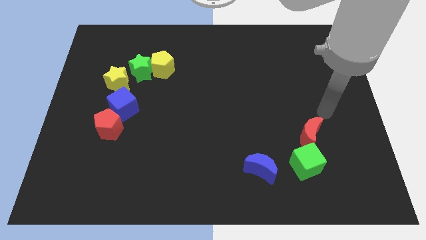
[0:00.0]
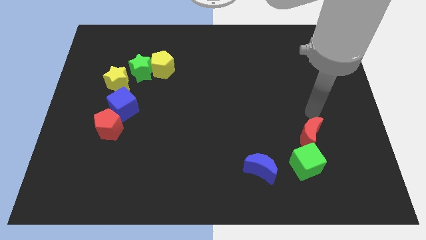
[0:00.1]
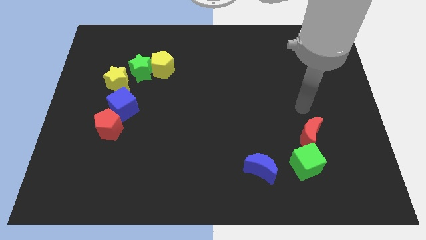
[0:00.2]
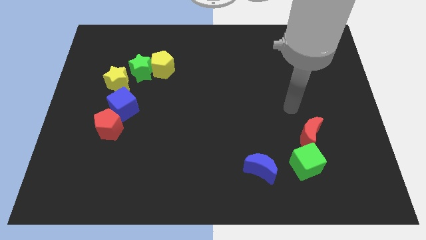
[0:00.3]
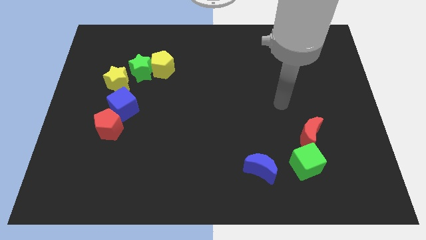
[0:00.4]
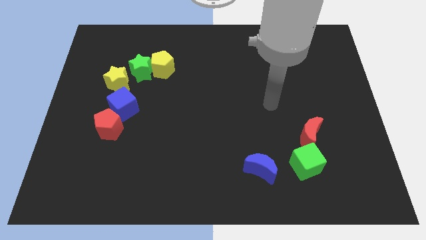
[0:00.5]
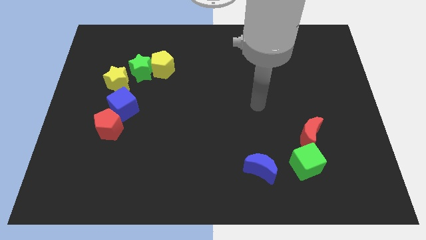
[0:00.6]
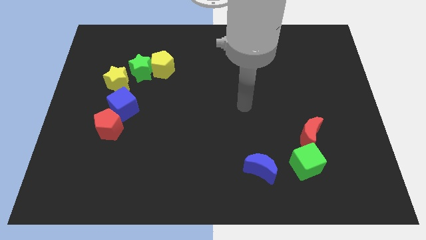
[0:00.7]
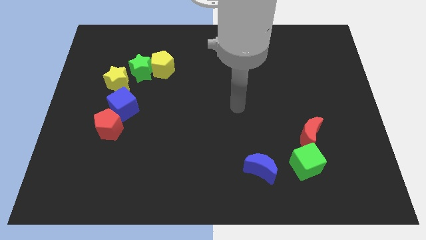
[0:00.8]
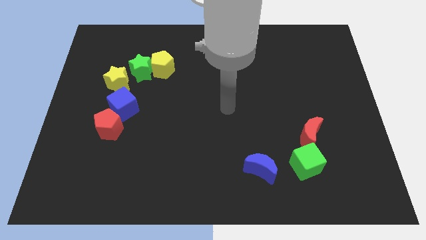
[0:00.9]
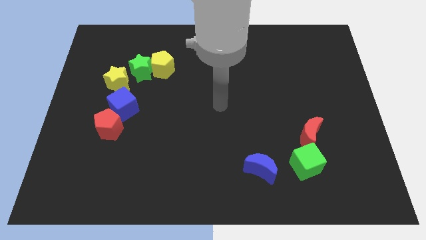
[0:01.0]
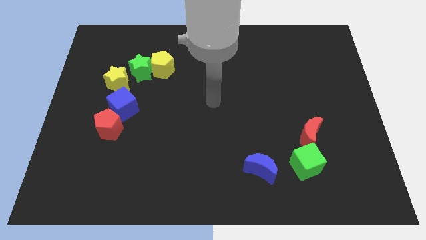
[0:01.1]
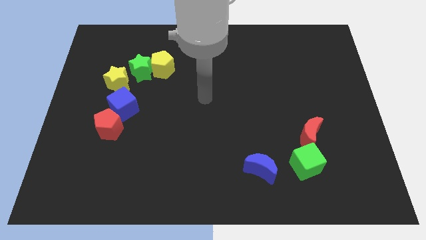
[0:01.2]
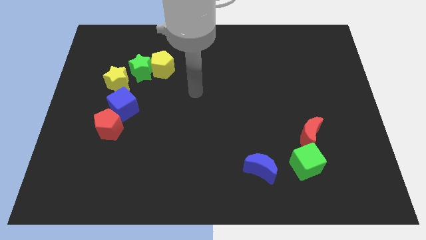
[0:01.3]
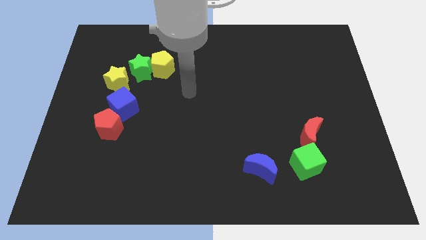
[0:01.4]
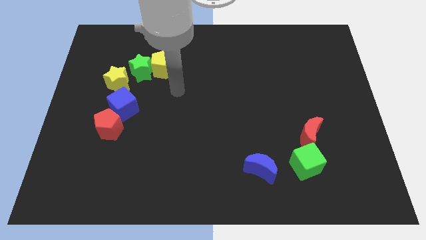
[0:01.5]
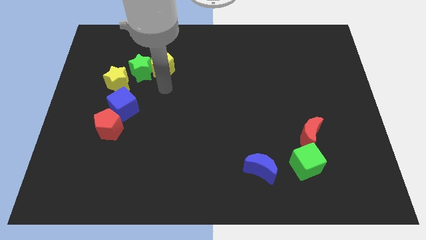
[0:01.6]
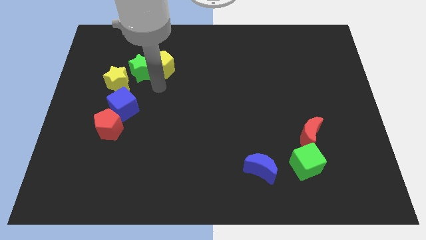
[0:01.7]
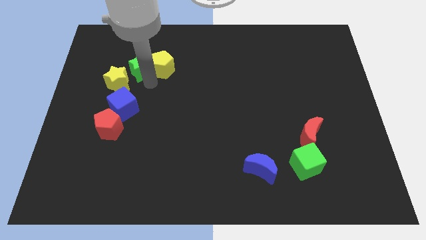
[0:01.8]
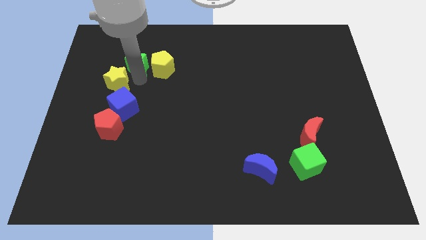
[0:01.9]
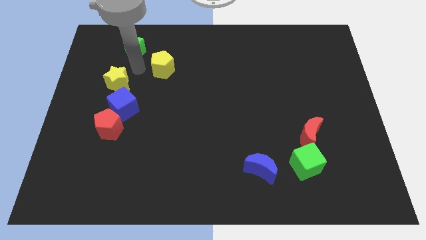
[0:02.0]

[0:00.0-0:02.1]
pull the yellow pentagon apart from the green star

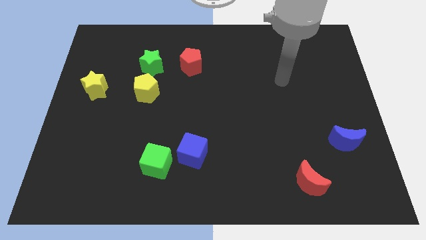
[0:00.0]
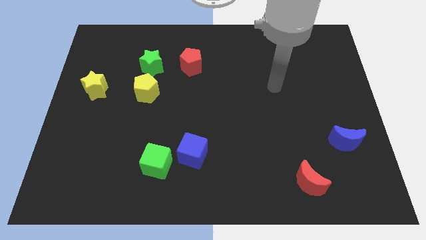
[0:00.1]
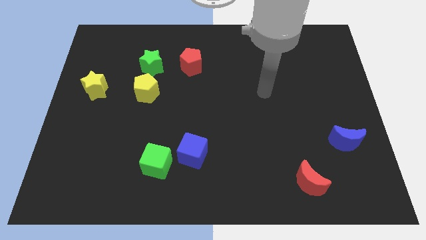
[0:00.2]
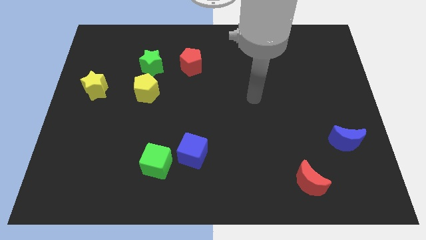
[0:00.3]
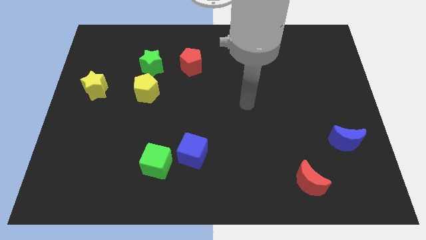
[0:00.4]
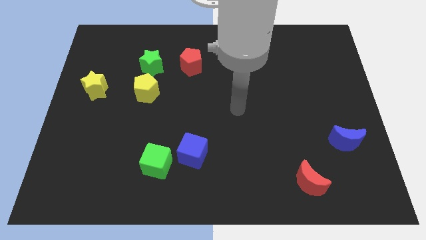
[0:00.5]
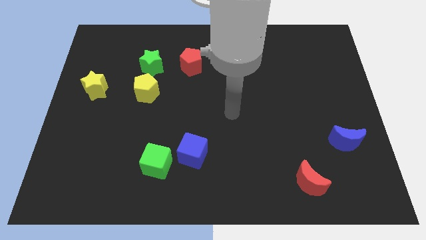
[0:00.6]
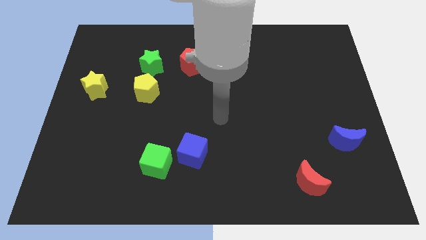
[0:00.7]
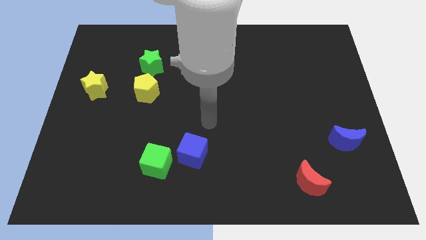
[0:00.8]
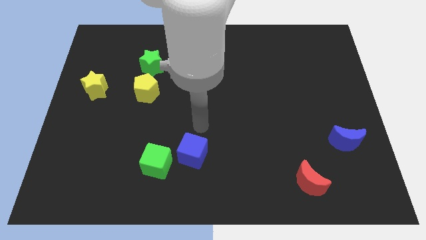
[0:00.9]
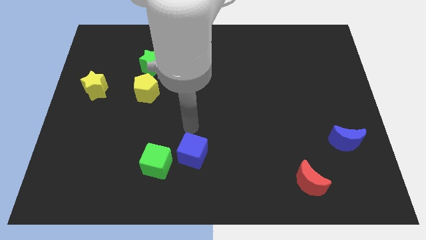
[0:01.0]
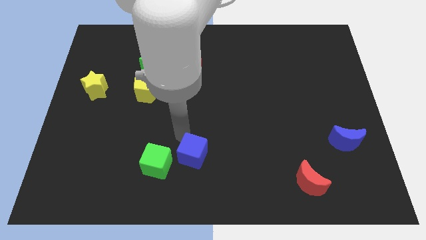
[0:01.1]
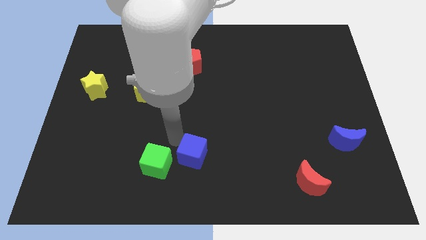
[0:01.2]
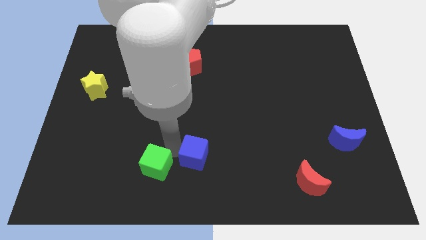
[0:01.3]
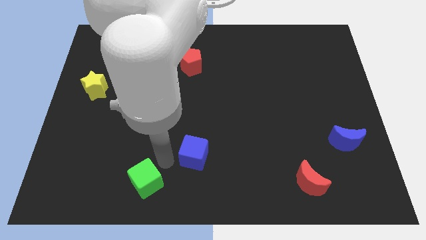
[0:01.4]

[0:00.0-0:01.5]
separate the blue cube from the green cube

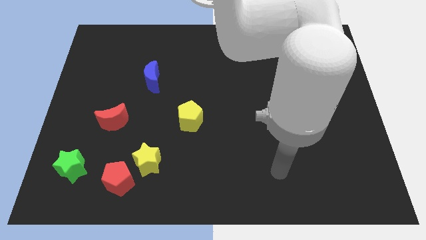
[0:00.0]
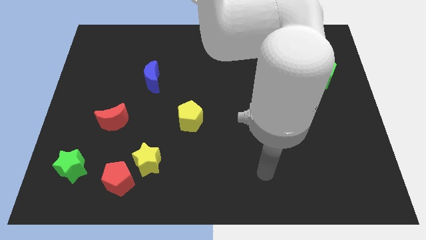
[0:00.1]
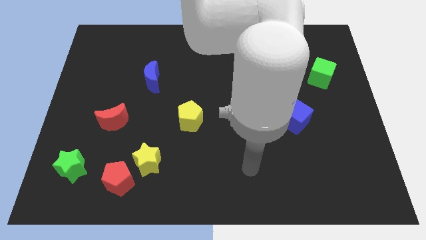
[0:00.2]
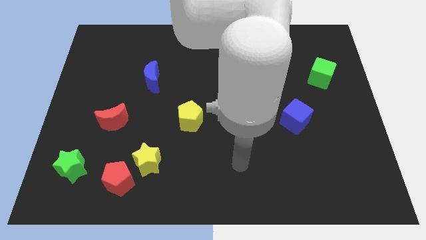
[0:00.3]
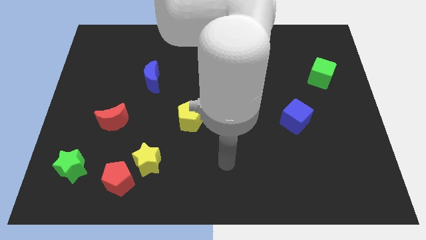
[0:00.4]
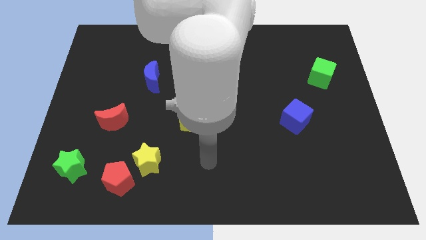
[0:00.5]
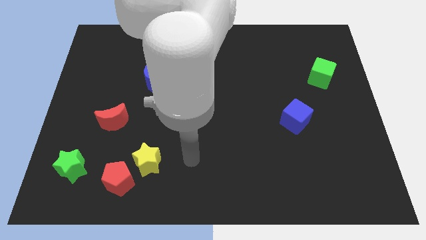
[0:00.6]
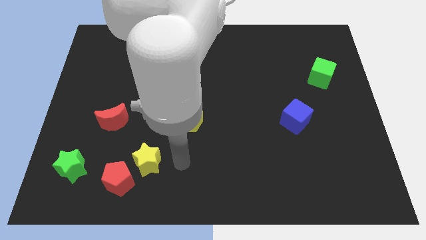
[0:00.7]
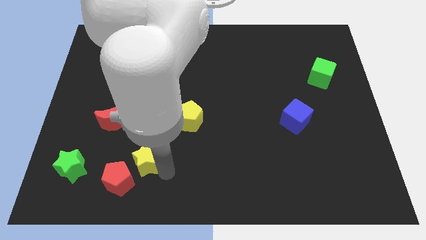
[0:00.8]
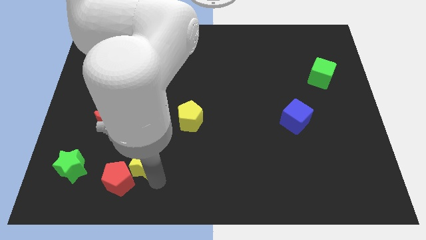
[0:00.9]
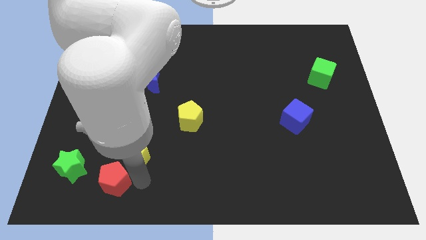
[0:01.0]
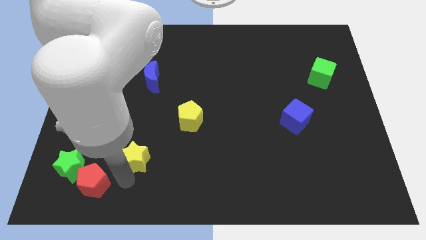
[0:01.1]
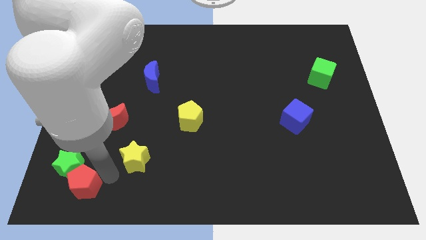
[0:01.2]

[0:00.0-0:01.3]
separate the yellow star from the red pentagon

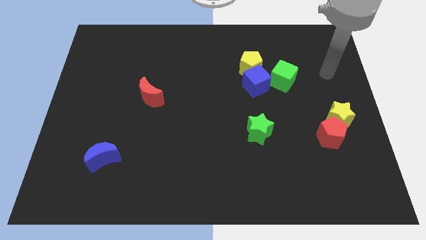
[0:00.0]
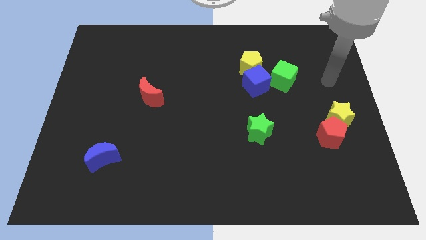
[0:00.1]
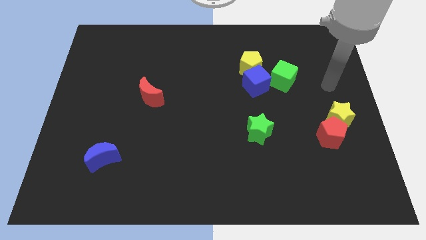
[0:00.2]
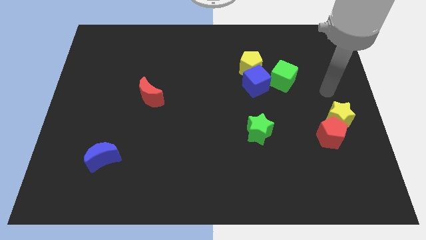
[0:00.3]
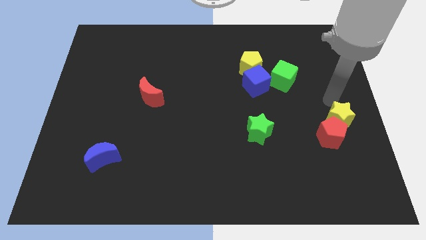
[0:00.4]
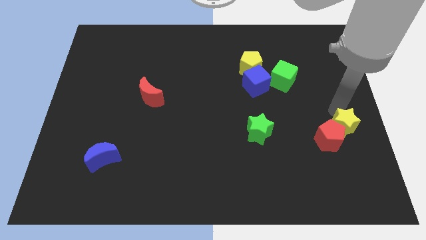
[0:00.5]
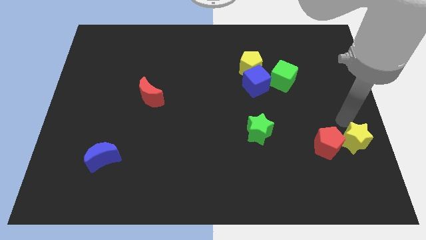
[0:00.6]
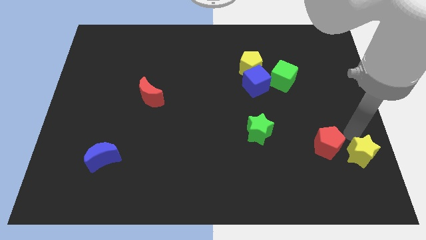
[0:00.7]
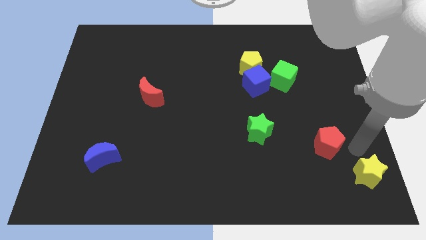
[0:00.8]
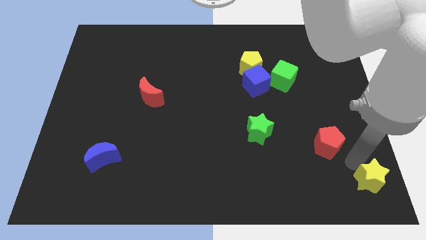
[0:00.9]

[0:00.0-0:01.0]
pull the red pentagon apart from the yellow star

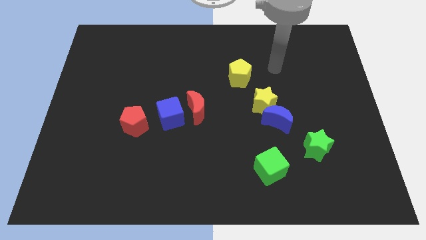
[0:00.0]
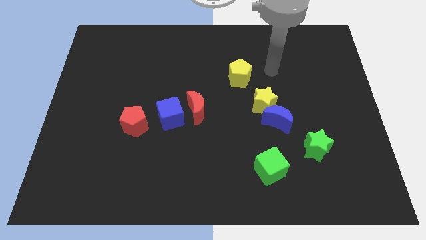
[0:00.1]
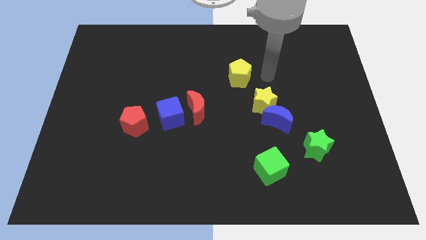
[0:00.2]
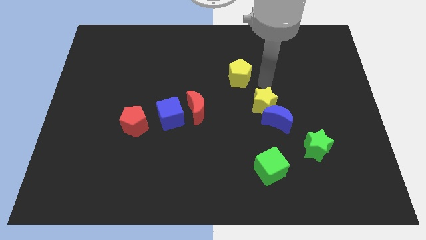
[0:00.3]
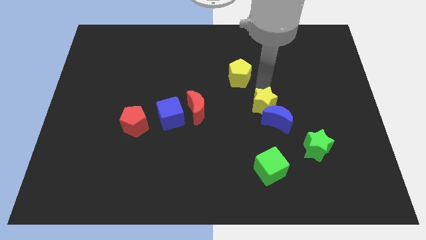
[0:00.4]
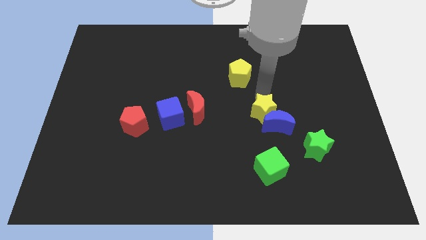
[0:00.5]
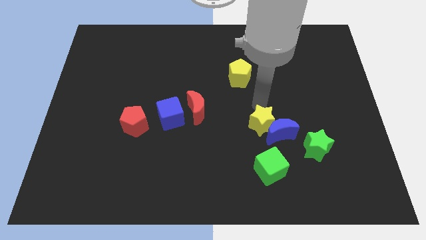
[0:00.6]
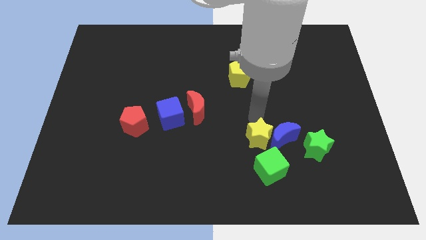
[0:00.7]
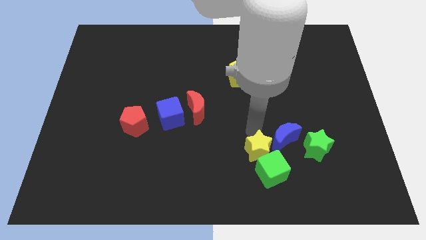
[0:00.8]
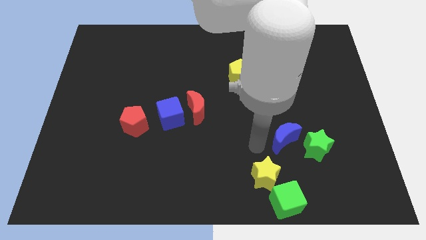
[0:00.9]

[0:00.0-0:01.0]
pull the blue moon apart from the yellow star

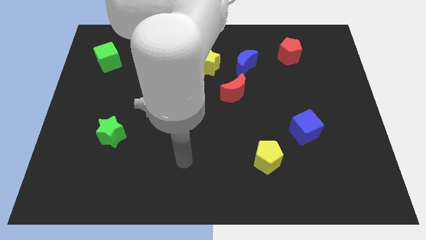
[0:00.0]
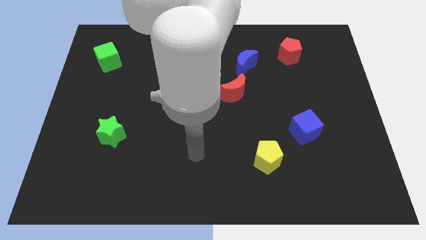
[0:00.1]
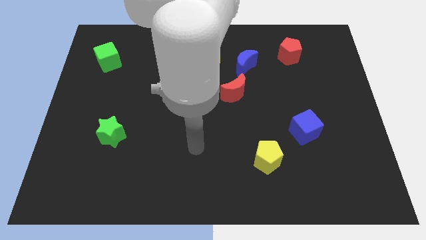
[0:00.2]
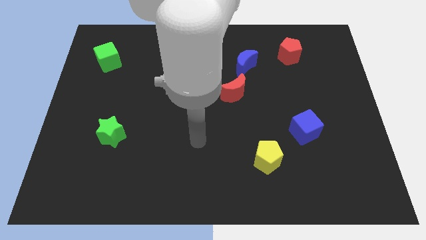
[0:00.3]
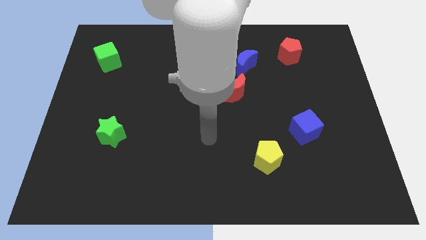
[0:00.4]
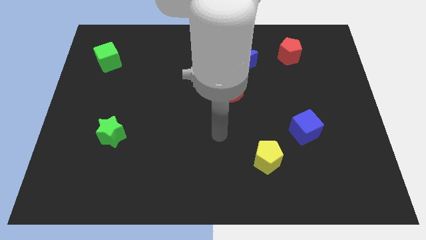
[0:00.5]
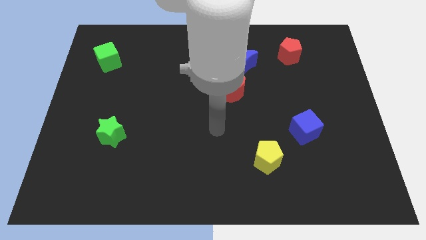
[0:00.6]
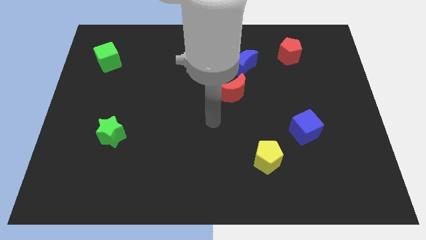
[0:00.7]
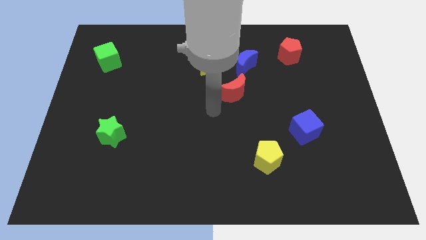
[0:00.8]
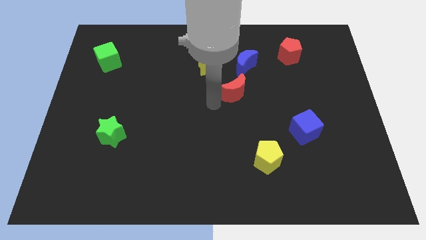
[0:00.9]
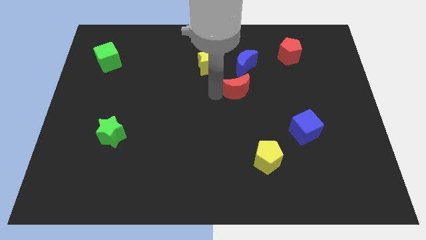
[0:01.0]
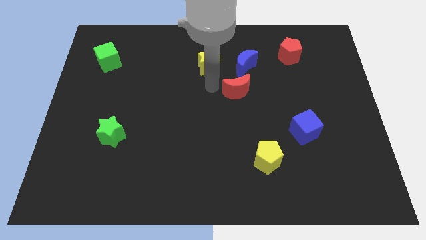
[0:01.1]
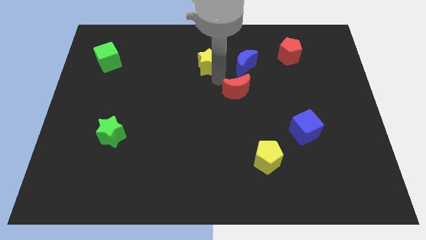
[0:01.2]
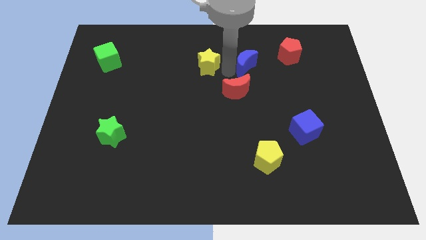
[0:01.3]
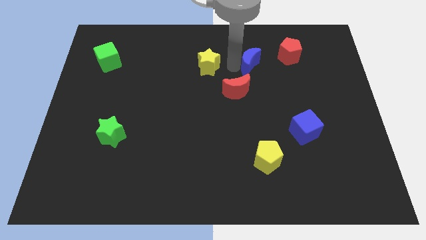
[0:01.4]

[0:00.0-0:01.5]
pull the yellow star apart from the blue moon

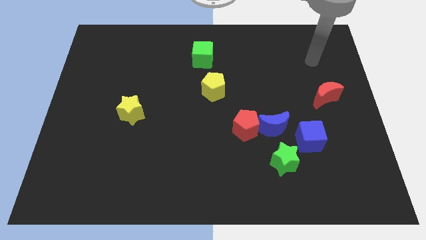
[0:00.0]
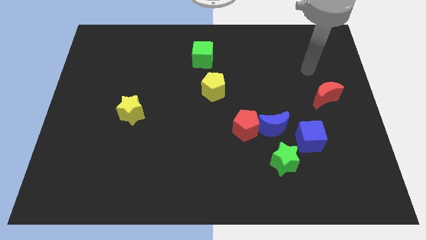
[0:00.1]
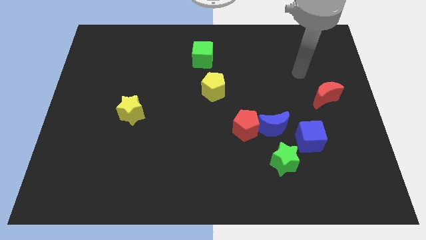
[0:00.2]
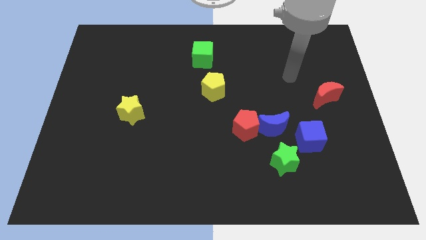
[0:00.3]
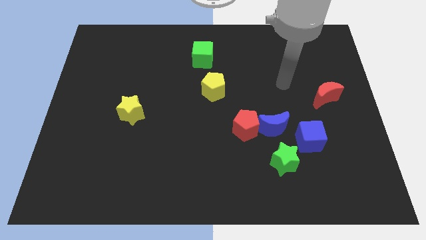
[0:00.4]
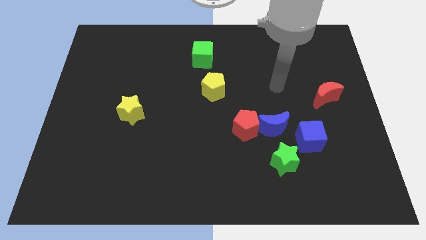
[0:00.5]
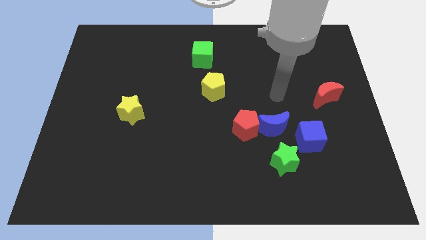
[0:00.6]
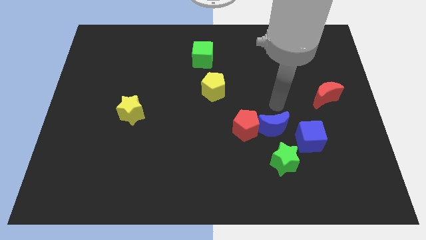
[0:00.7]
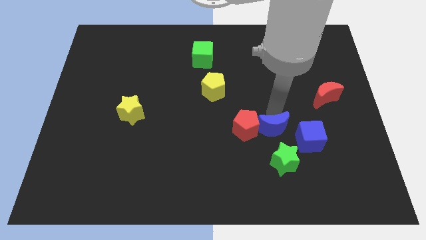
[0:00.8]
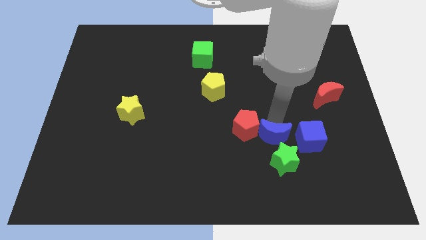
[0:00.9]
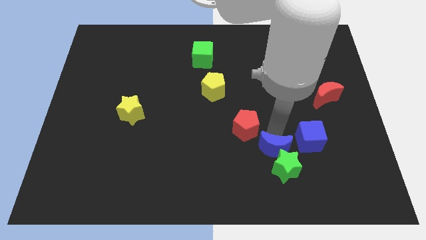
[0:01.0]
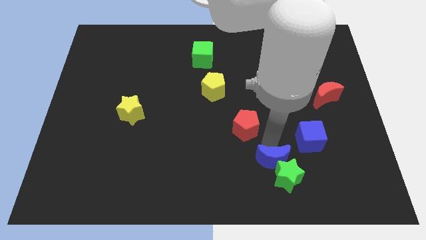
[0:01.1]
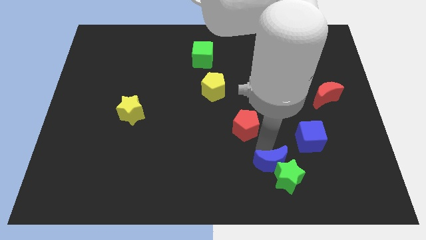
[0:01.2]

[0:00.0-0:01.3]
pull the red pentagon apart from the blue moon
